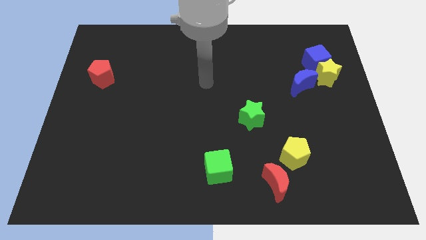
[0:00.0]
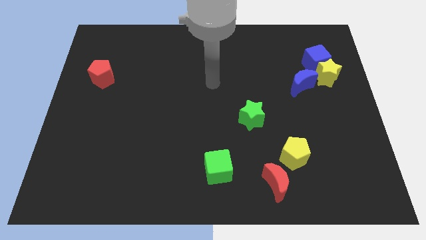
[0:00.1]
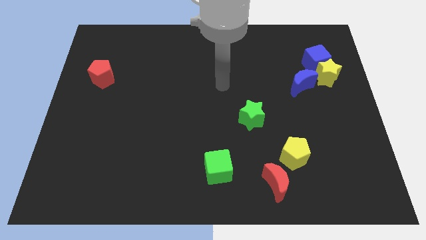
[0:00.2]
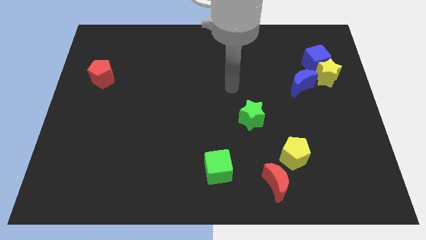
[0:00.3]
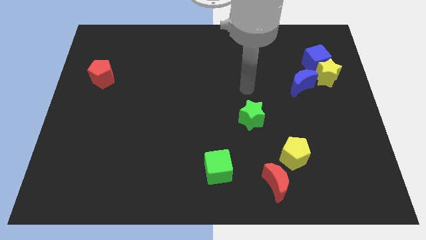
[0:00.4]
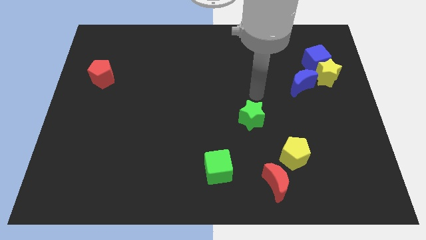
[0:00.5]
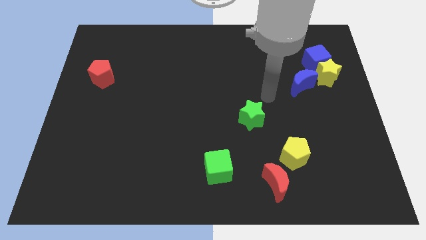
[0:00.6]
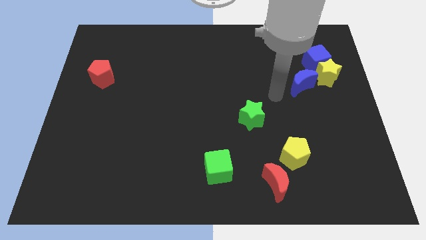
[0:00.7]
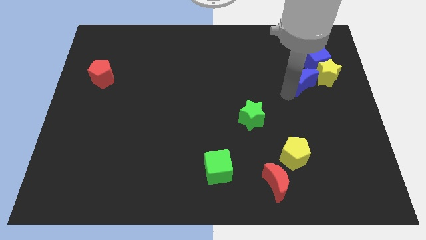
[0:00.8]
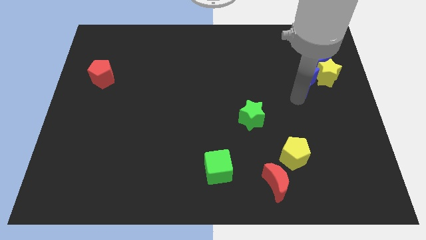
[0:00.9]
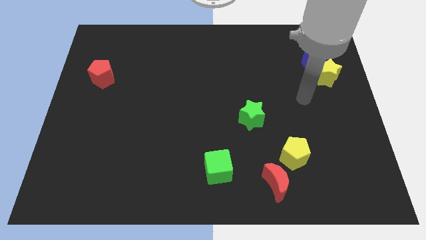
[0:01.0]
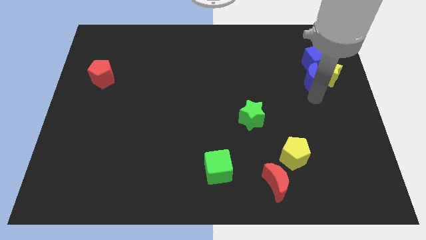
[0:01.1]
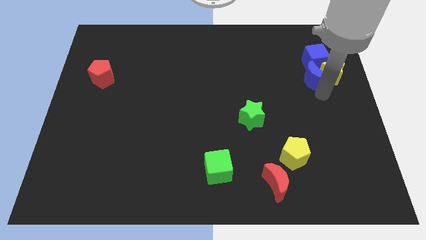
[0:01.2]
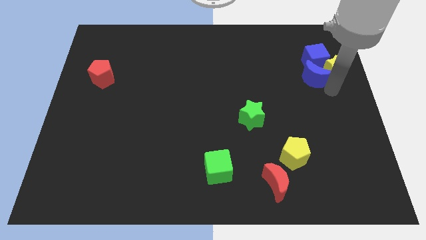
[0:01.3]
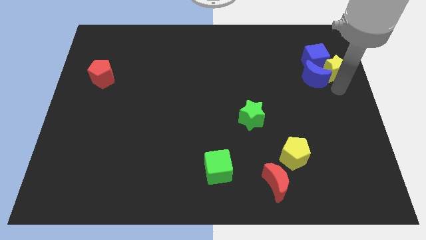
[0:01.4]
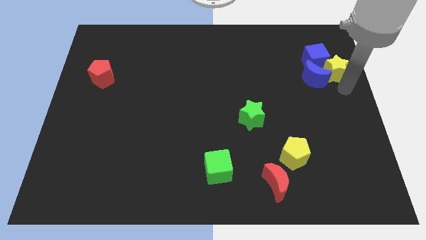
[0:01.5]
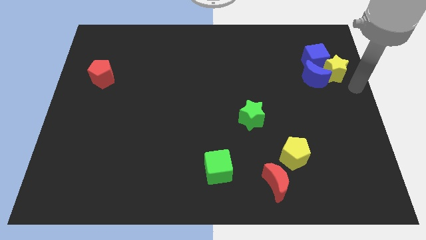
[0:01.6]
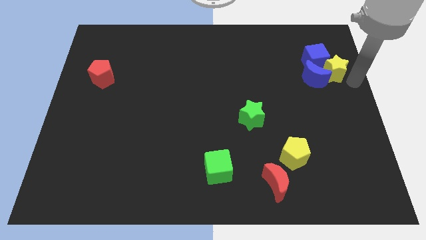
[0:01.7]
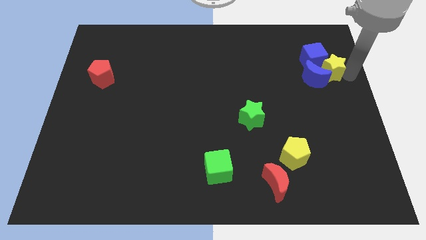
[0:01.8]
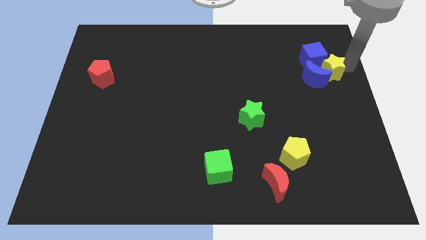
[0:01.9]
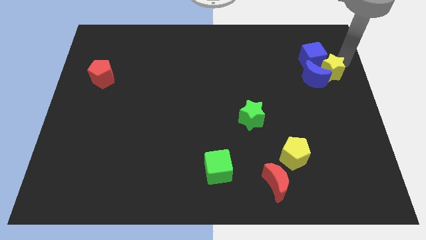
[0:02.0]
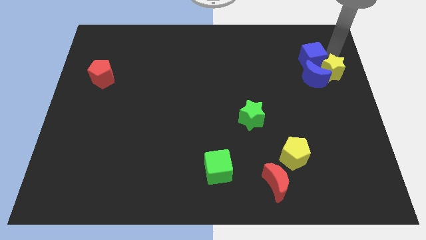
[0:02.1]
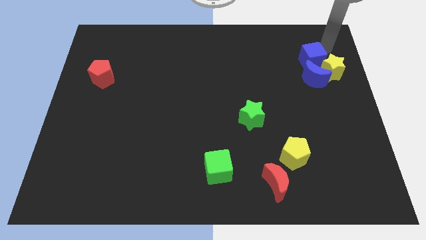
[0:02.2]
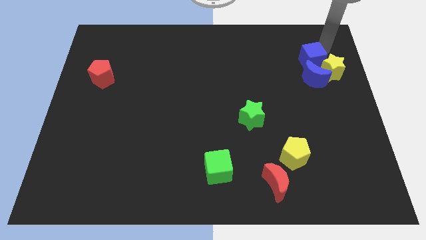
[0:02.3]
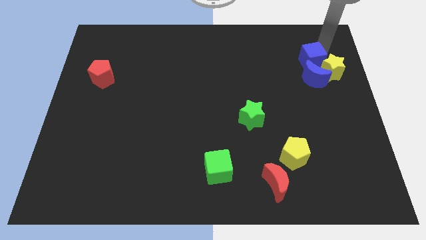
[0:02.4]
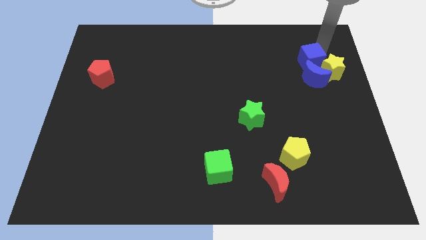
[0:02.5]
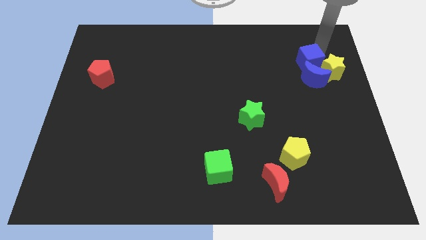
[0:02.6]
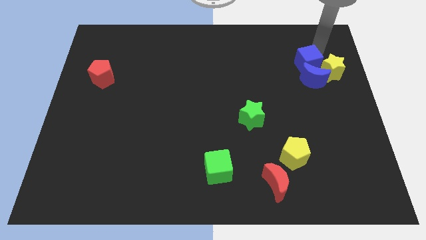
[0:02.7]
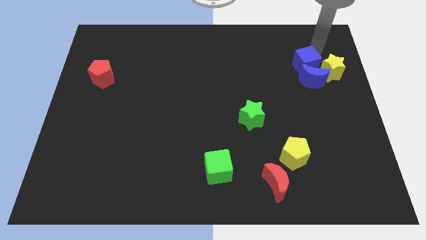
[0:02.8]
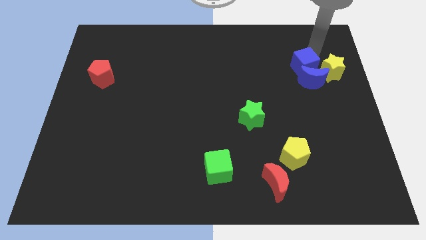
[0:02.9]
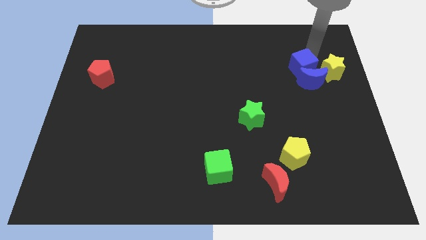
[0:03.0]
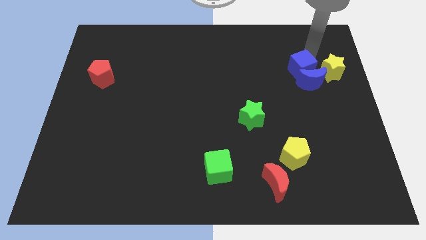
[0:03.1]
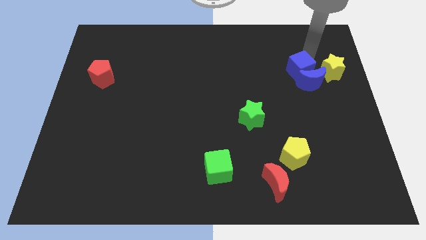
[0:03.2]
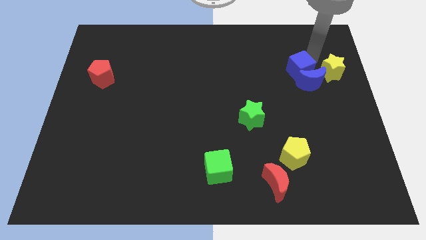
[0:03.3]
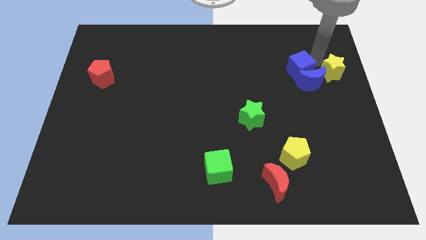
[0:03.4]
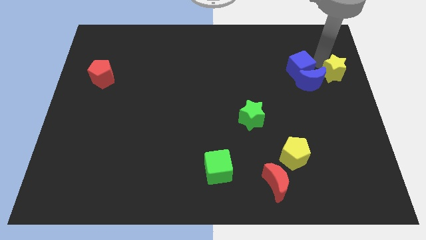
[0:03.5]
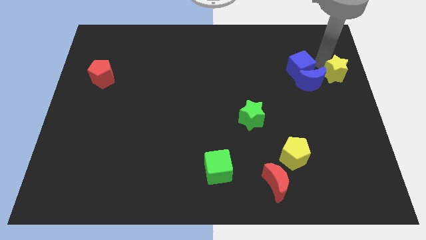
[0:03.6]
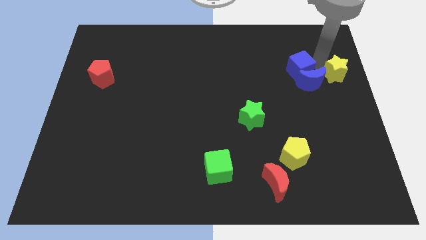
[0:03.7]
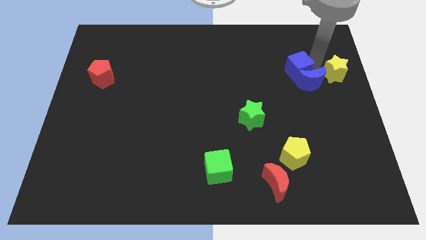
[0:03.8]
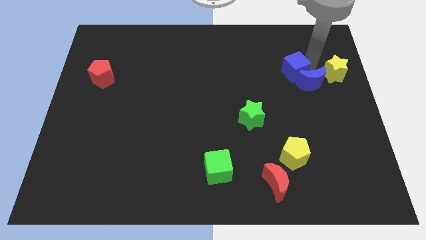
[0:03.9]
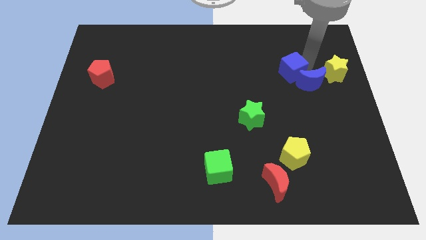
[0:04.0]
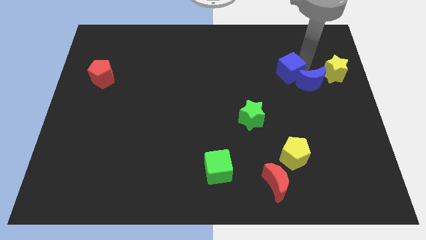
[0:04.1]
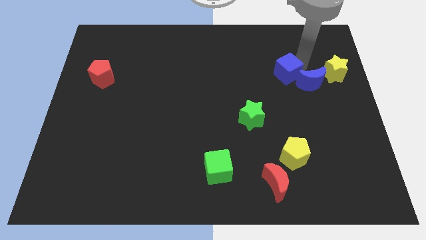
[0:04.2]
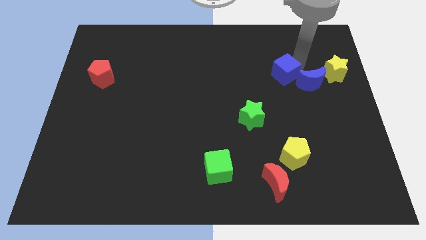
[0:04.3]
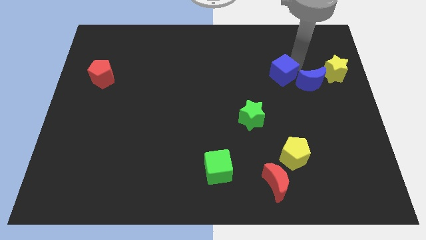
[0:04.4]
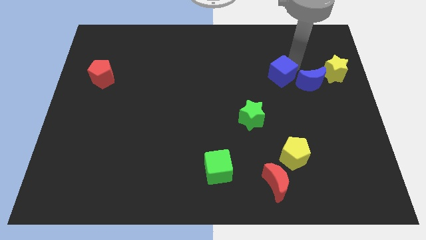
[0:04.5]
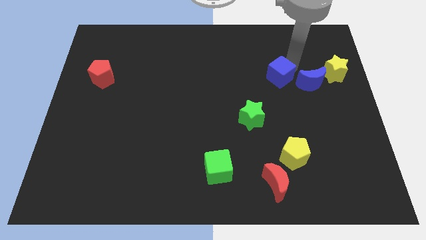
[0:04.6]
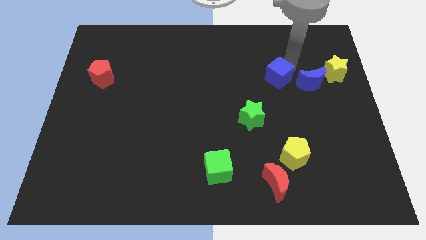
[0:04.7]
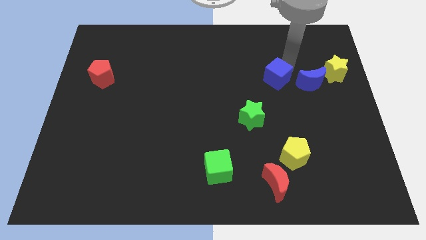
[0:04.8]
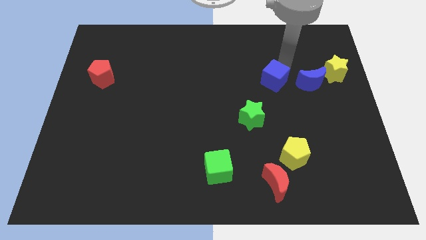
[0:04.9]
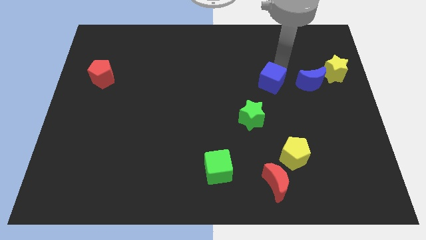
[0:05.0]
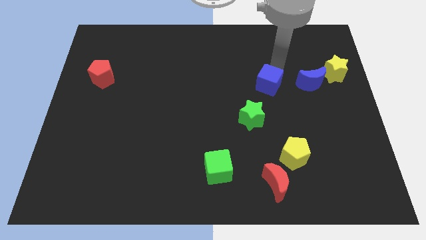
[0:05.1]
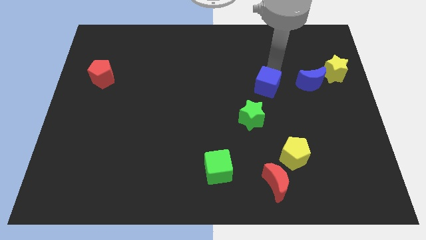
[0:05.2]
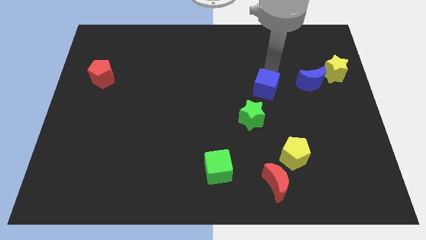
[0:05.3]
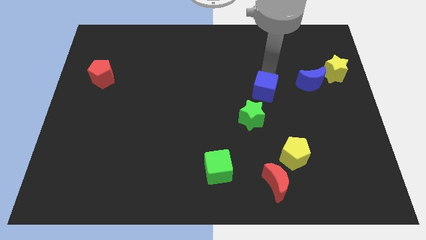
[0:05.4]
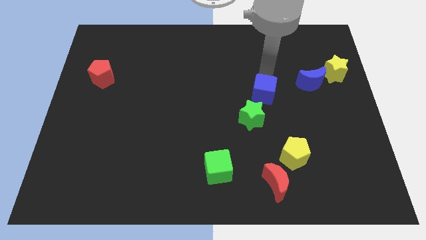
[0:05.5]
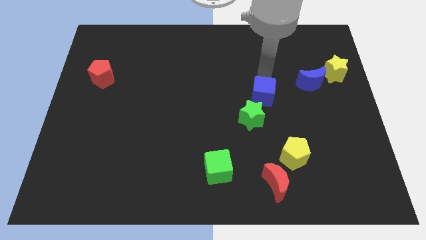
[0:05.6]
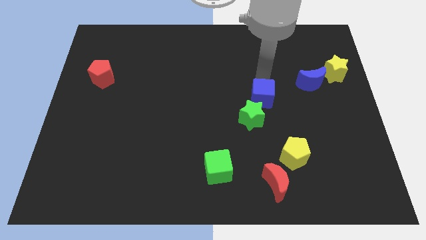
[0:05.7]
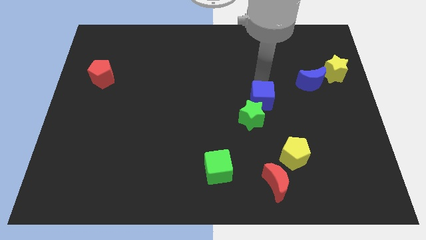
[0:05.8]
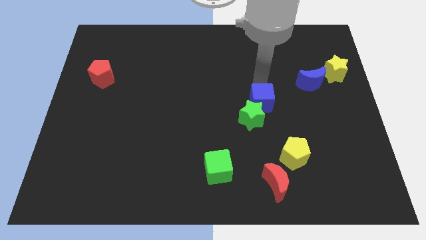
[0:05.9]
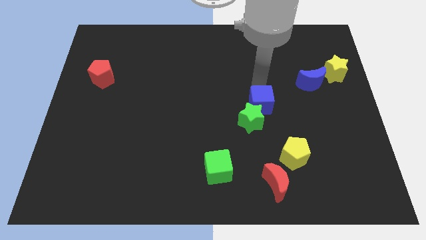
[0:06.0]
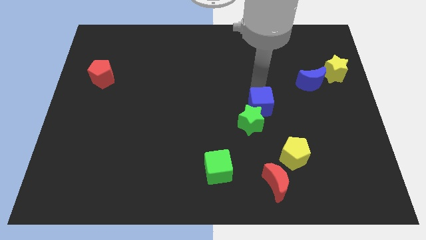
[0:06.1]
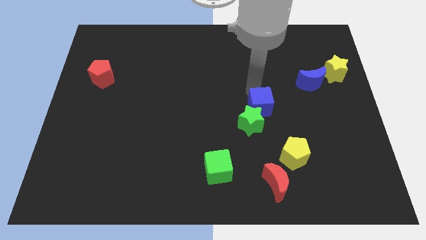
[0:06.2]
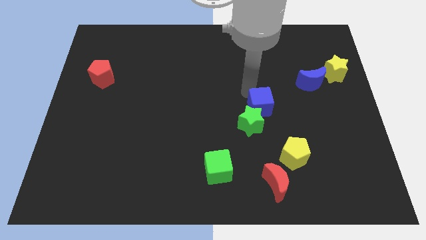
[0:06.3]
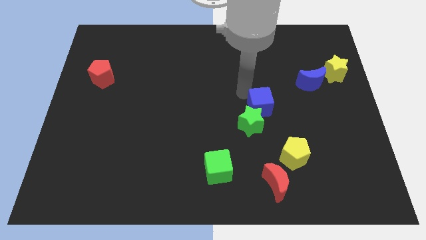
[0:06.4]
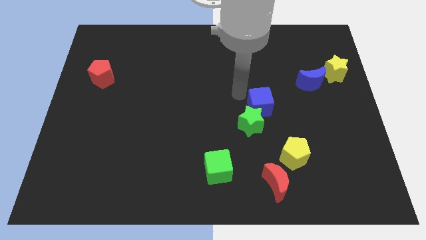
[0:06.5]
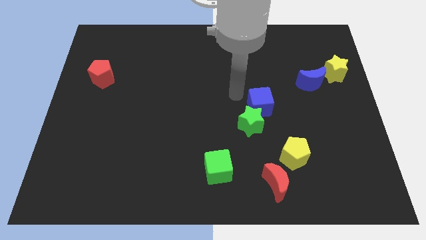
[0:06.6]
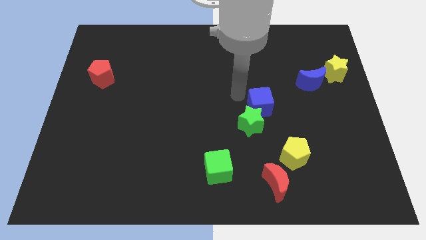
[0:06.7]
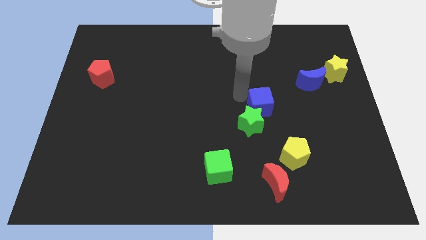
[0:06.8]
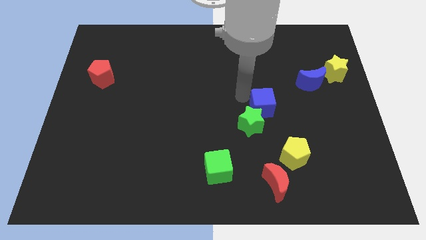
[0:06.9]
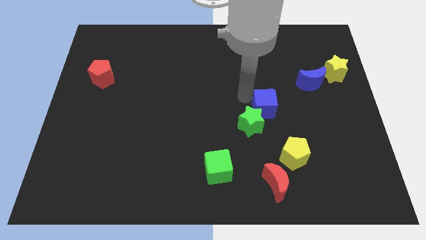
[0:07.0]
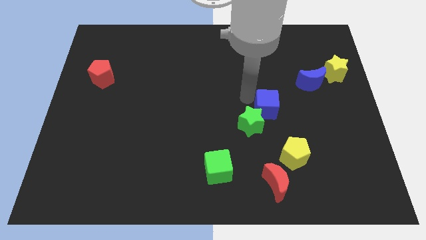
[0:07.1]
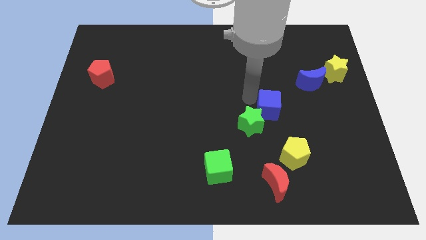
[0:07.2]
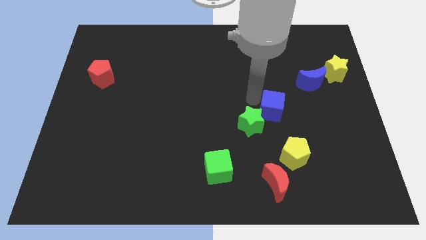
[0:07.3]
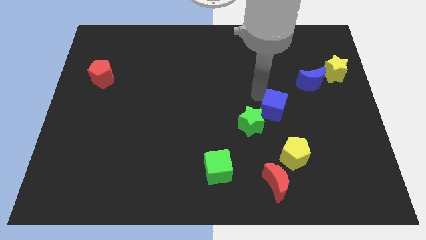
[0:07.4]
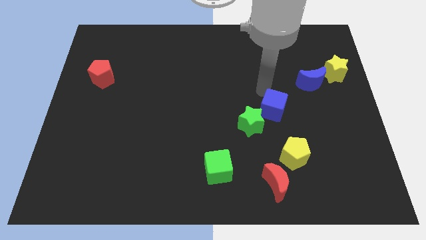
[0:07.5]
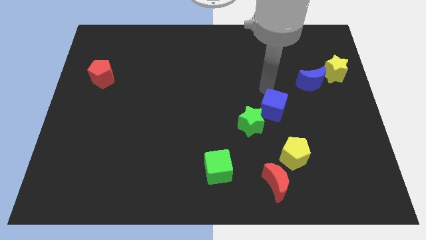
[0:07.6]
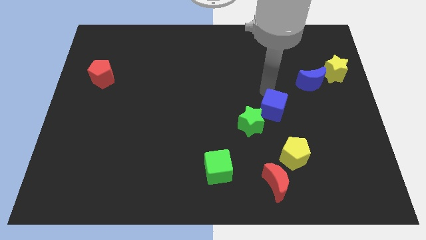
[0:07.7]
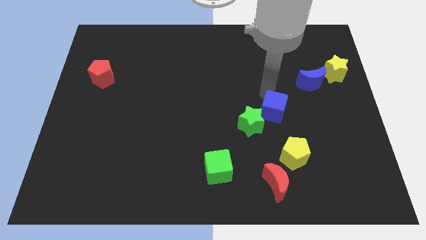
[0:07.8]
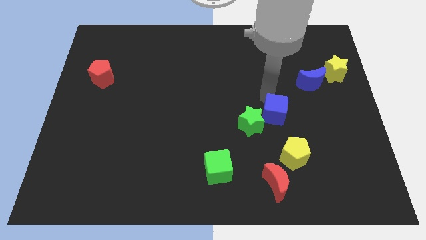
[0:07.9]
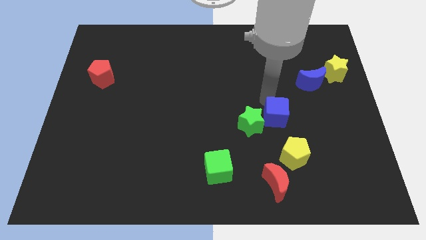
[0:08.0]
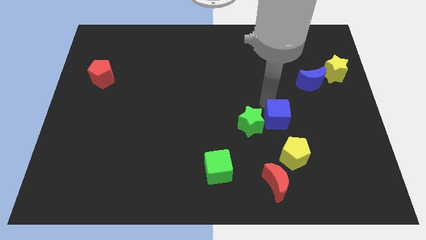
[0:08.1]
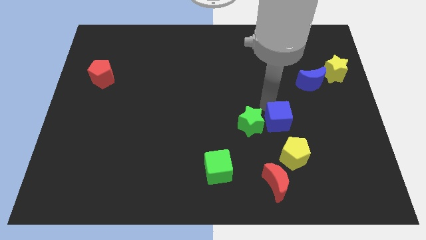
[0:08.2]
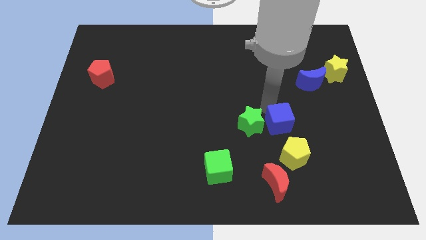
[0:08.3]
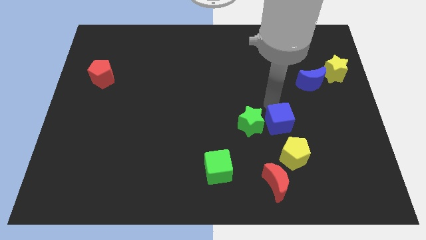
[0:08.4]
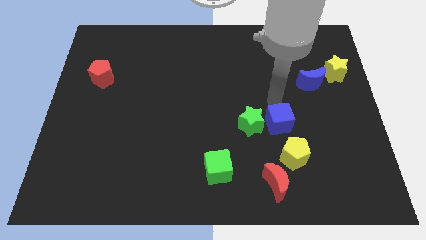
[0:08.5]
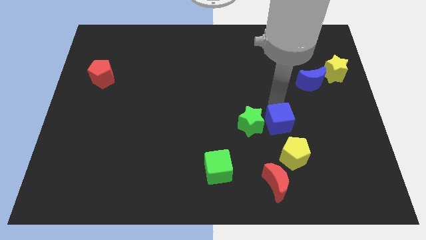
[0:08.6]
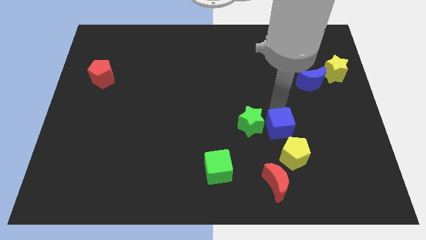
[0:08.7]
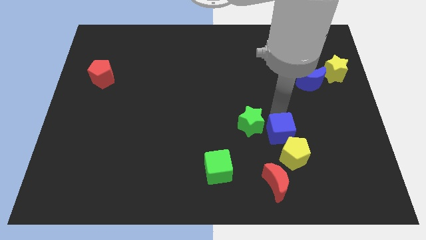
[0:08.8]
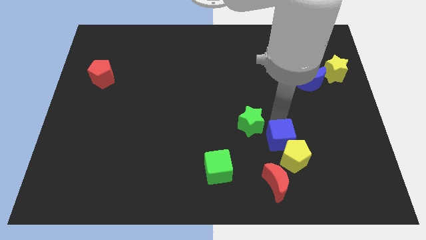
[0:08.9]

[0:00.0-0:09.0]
put the blue cube to the yellow pentagon
